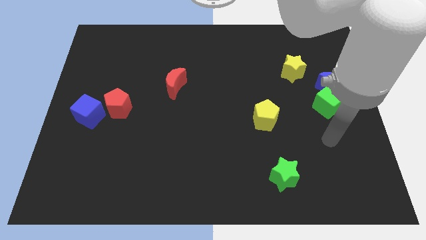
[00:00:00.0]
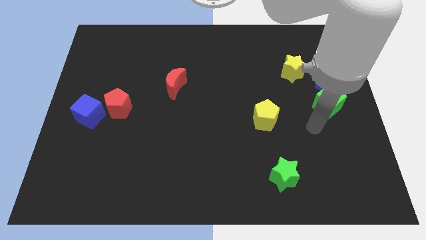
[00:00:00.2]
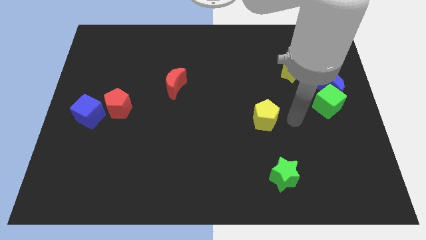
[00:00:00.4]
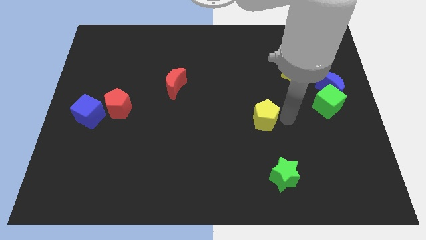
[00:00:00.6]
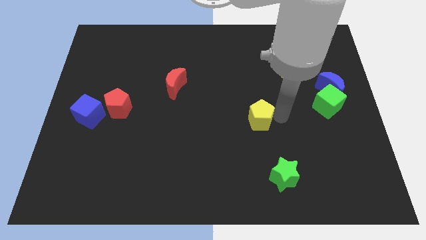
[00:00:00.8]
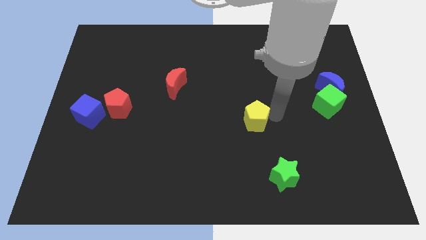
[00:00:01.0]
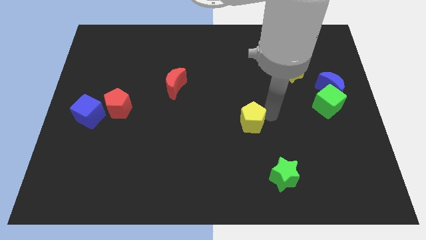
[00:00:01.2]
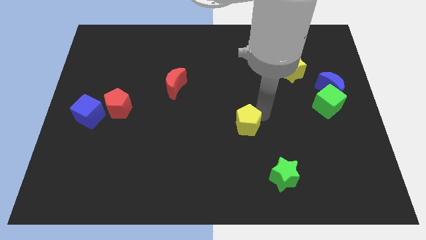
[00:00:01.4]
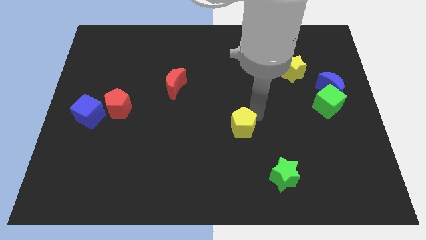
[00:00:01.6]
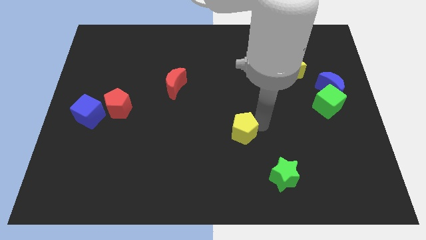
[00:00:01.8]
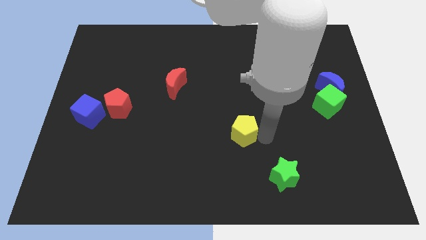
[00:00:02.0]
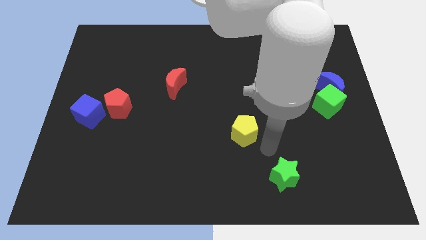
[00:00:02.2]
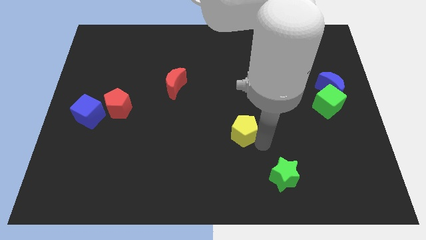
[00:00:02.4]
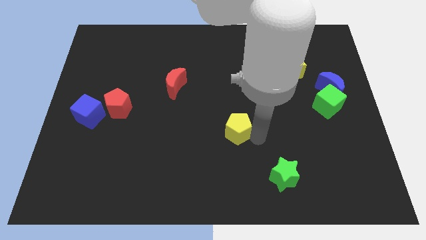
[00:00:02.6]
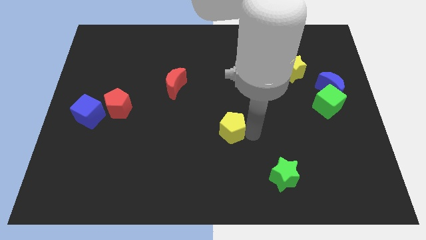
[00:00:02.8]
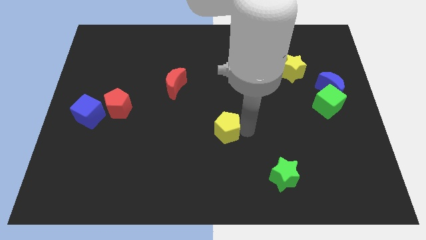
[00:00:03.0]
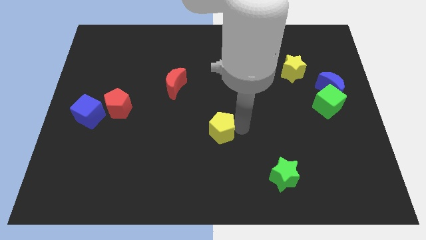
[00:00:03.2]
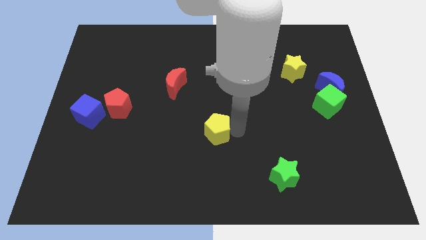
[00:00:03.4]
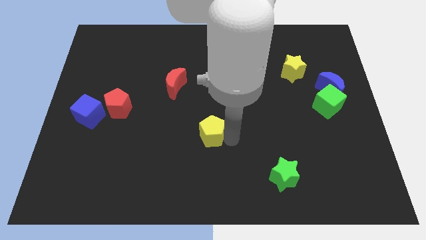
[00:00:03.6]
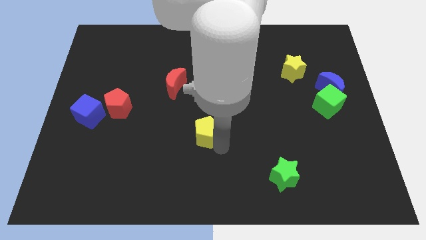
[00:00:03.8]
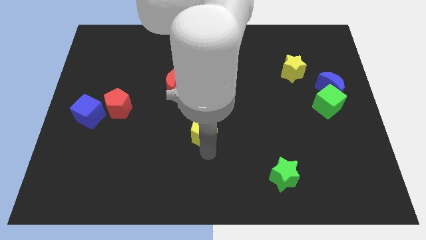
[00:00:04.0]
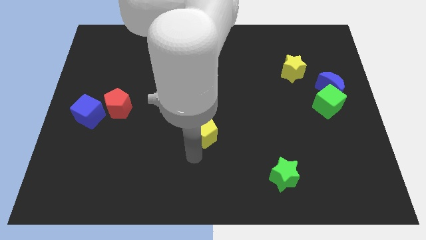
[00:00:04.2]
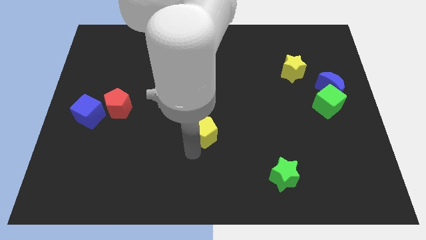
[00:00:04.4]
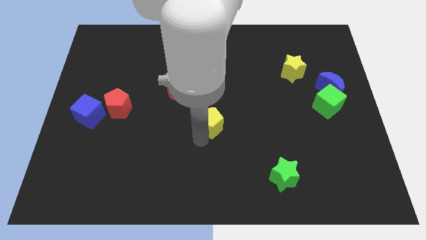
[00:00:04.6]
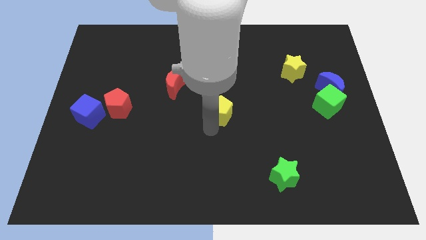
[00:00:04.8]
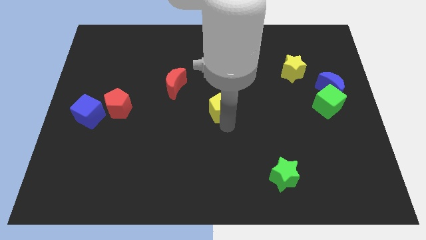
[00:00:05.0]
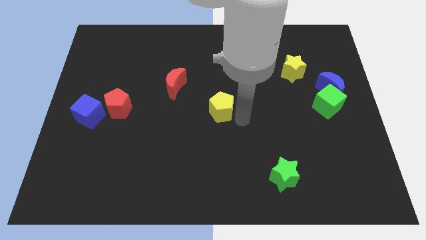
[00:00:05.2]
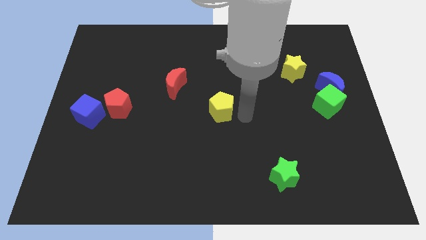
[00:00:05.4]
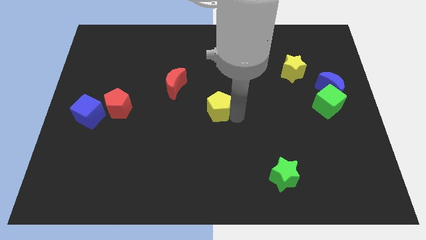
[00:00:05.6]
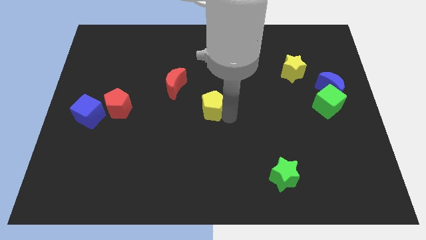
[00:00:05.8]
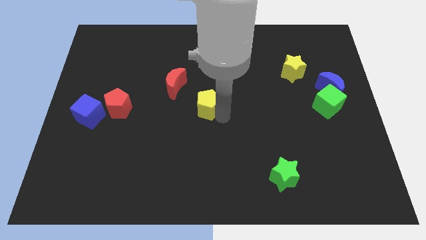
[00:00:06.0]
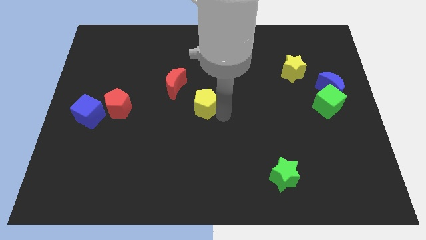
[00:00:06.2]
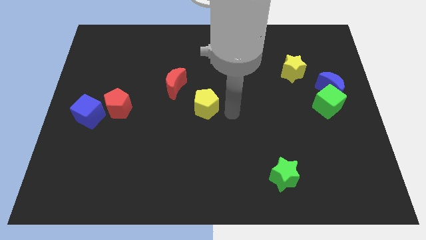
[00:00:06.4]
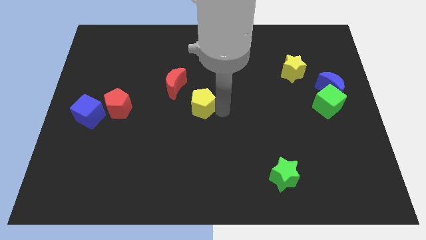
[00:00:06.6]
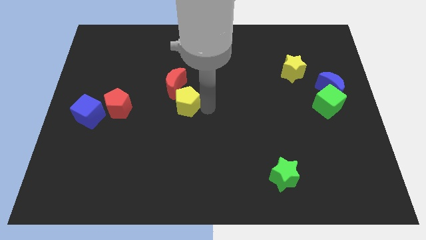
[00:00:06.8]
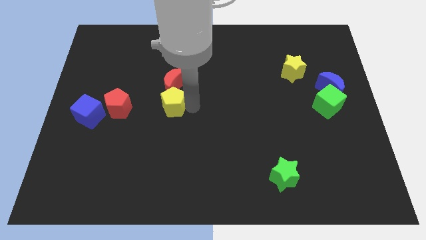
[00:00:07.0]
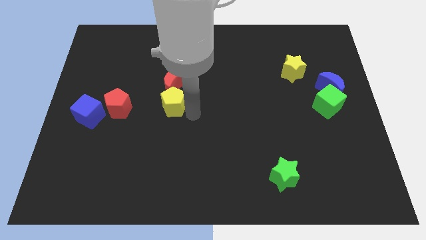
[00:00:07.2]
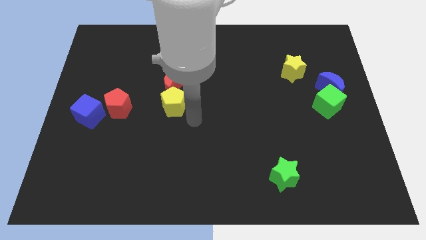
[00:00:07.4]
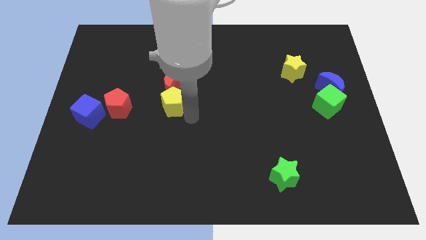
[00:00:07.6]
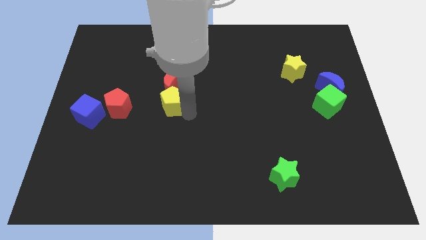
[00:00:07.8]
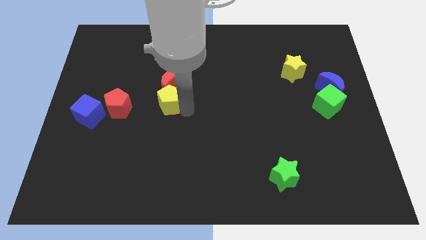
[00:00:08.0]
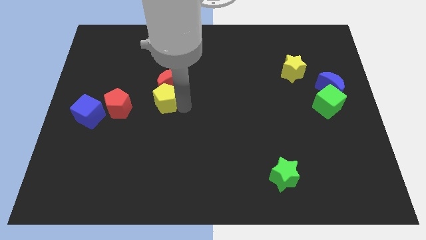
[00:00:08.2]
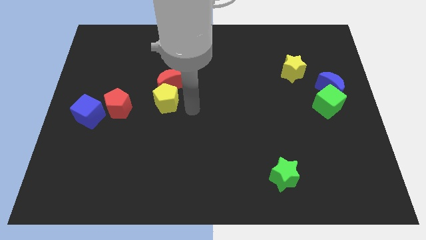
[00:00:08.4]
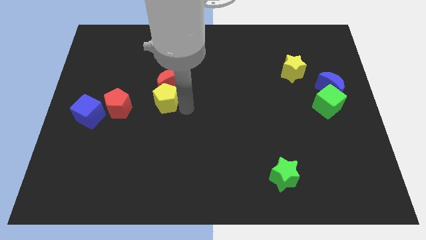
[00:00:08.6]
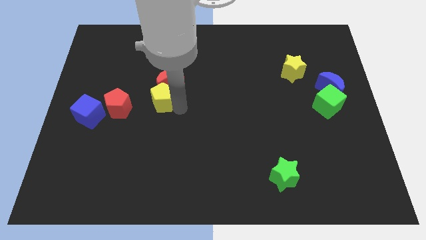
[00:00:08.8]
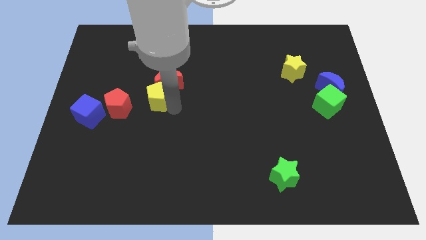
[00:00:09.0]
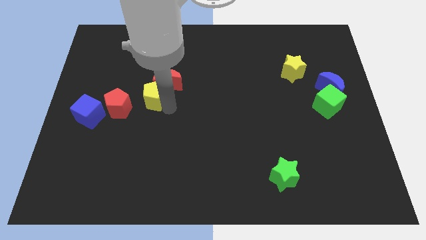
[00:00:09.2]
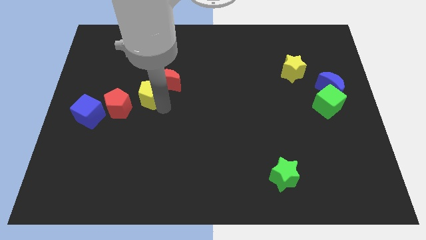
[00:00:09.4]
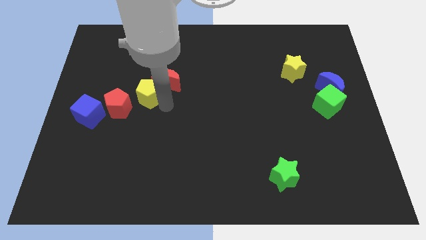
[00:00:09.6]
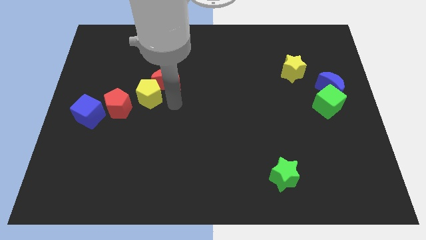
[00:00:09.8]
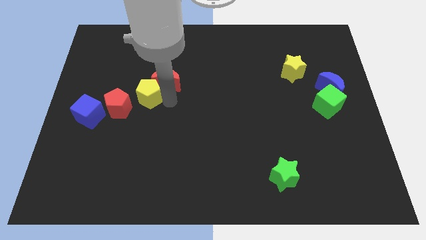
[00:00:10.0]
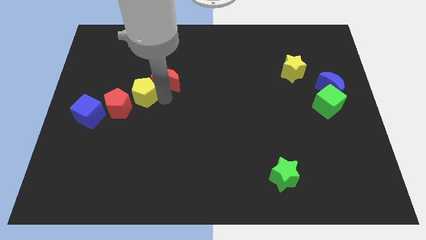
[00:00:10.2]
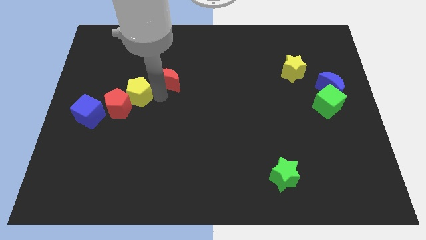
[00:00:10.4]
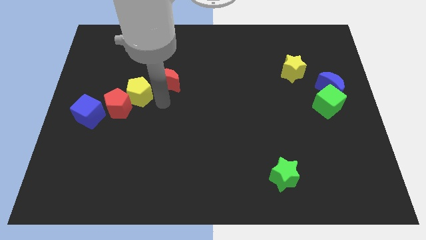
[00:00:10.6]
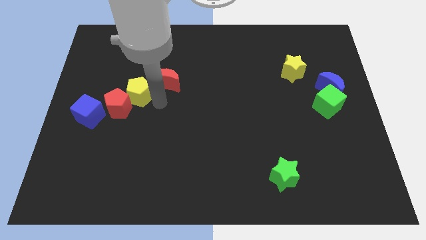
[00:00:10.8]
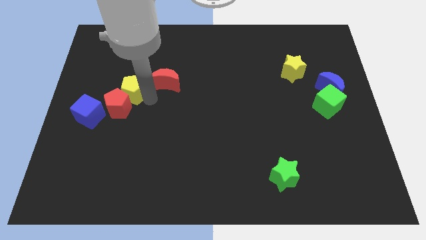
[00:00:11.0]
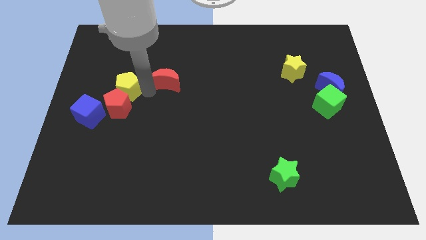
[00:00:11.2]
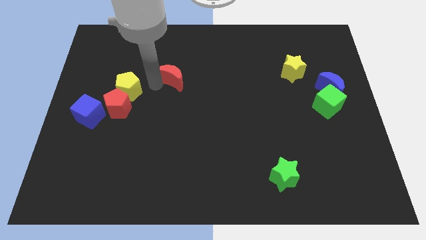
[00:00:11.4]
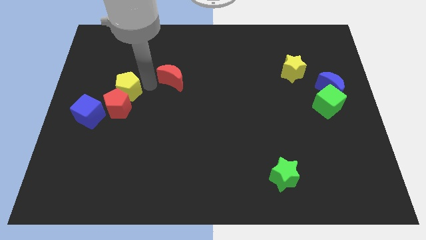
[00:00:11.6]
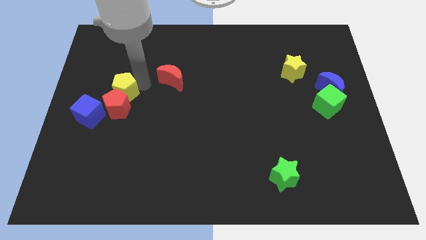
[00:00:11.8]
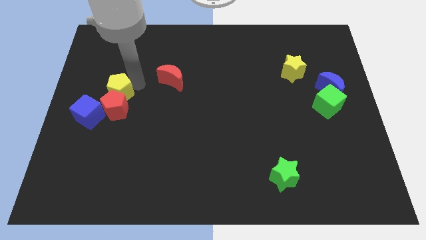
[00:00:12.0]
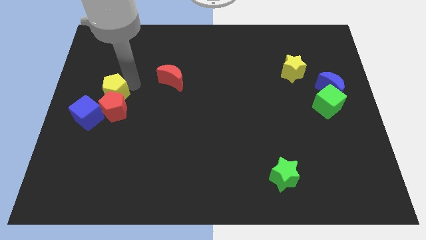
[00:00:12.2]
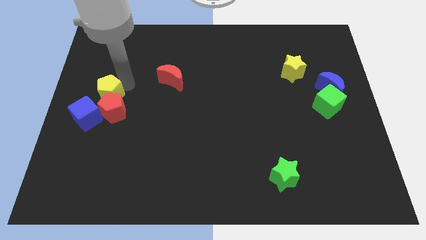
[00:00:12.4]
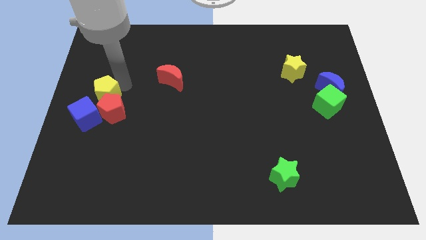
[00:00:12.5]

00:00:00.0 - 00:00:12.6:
move the yellow pentagon to the center left
